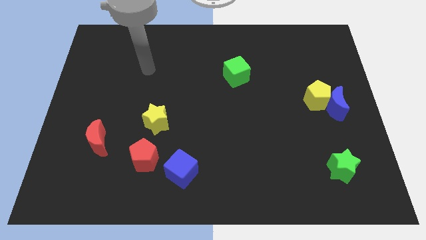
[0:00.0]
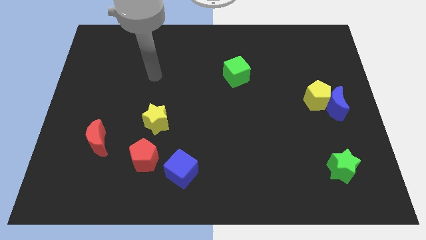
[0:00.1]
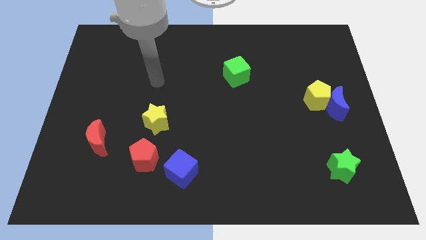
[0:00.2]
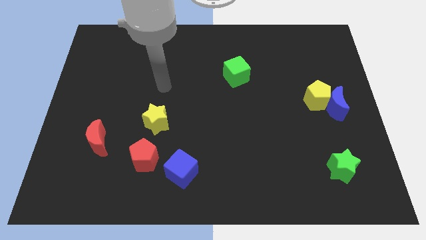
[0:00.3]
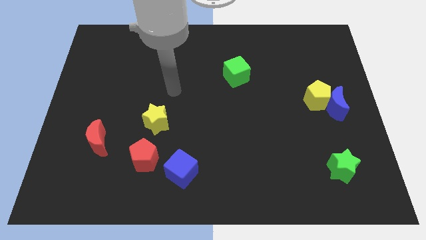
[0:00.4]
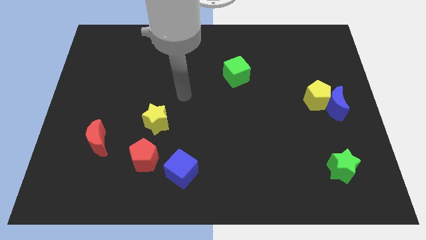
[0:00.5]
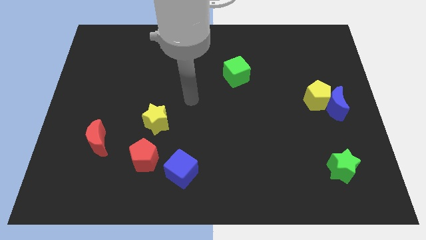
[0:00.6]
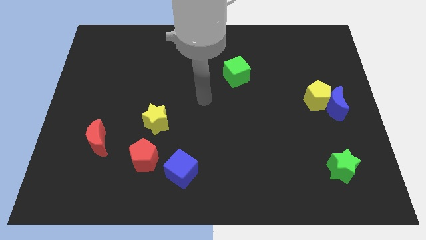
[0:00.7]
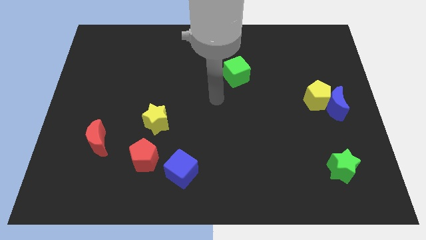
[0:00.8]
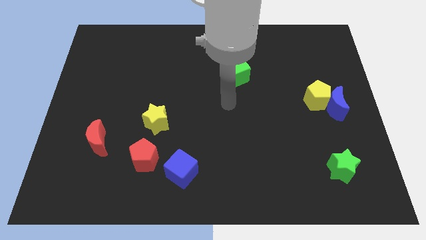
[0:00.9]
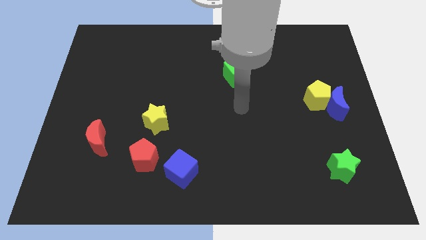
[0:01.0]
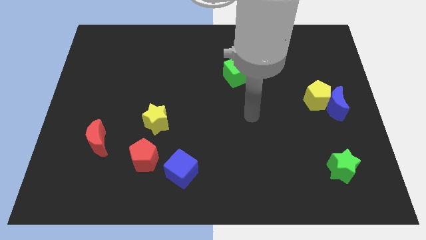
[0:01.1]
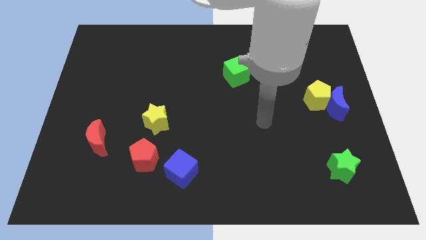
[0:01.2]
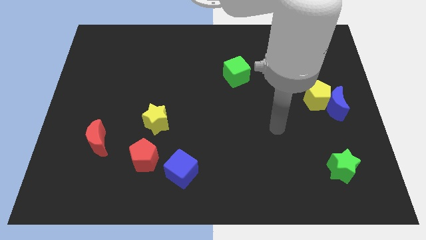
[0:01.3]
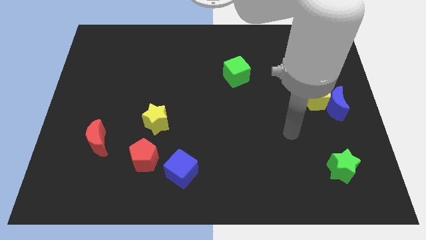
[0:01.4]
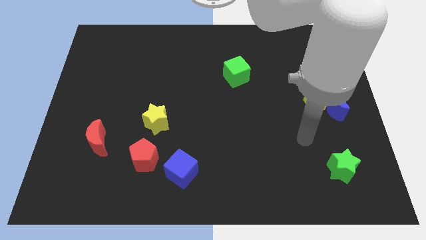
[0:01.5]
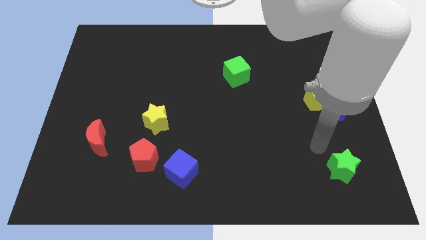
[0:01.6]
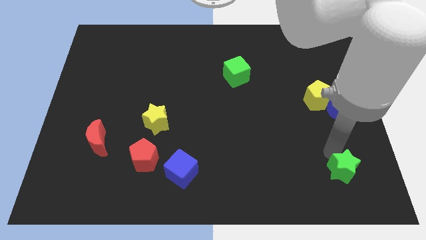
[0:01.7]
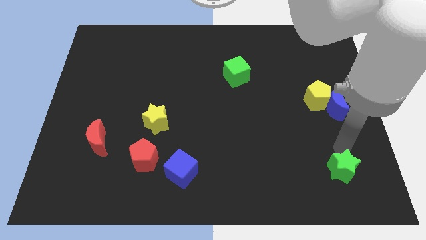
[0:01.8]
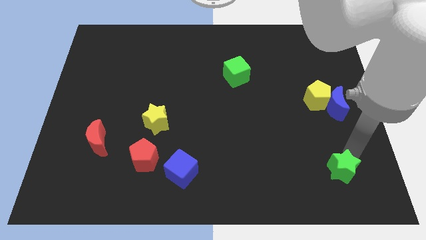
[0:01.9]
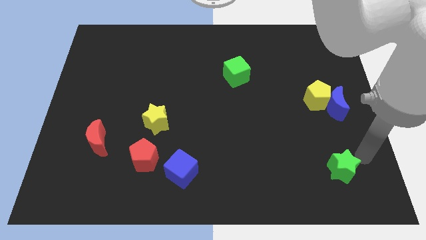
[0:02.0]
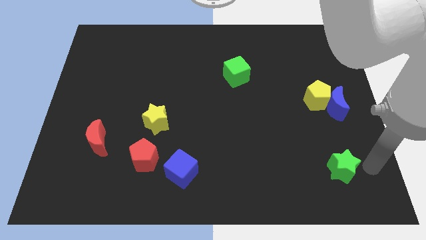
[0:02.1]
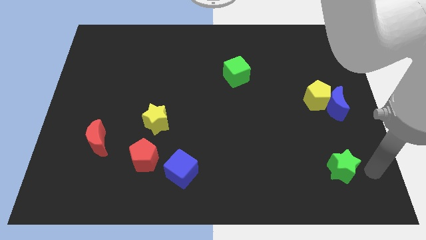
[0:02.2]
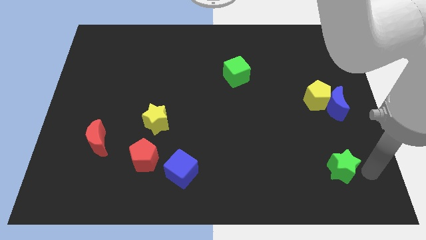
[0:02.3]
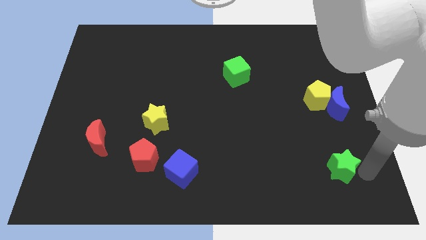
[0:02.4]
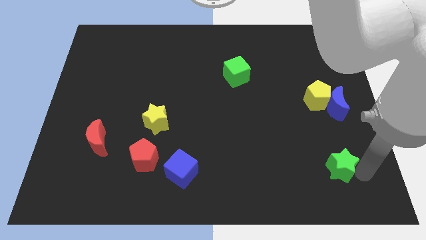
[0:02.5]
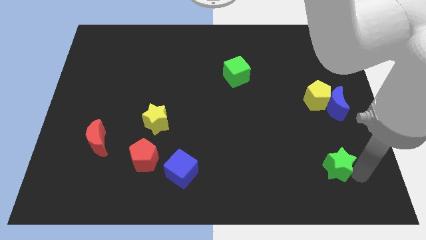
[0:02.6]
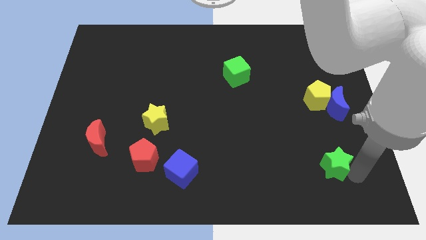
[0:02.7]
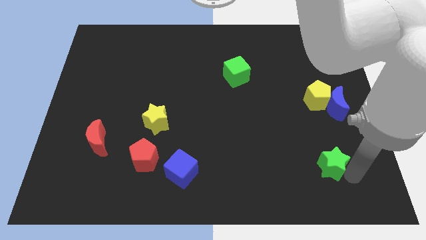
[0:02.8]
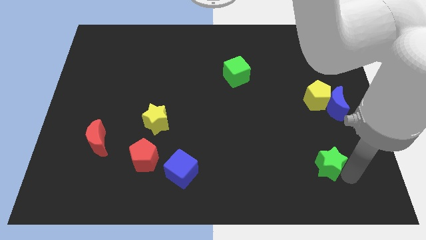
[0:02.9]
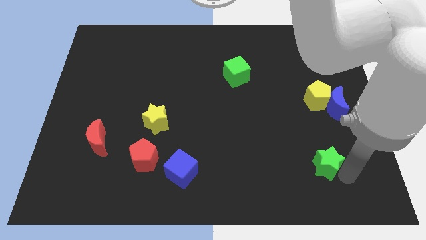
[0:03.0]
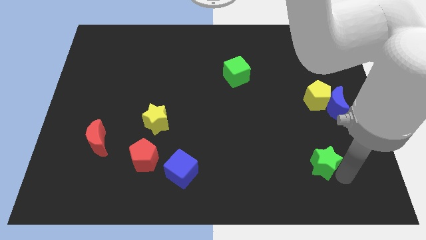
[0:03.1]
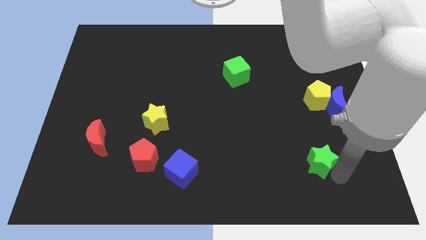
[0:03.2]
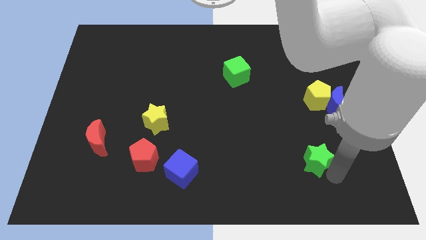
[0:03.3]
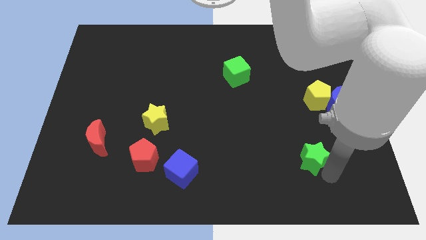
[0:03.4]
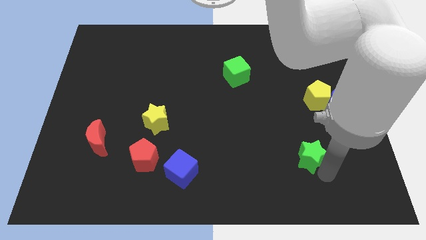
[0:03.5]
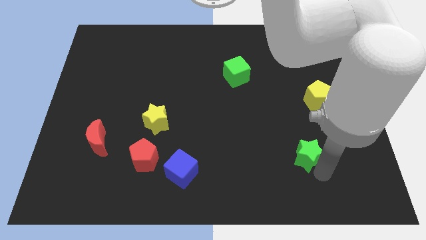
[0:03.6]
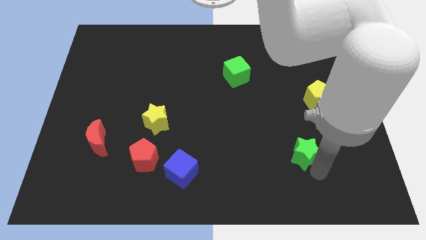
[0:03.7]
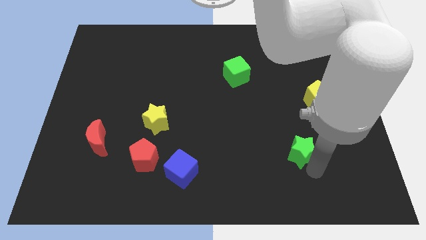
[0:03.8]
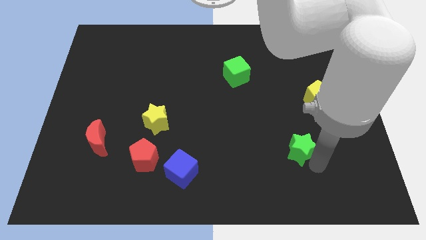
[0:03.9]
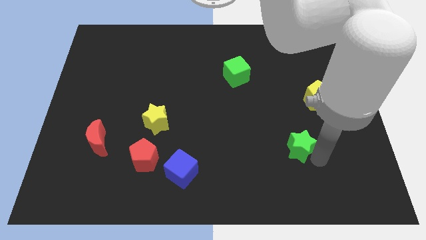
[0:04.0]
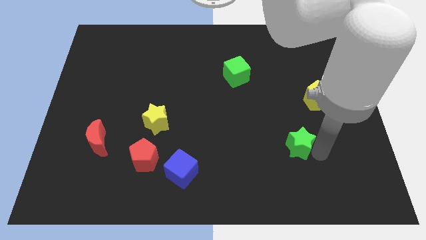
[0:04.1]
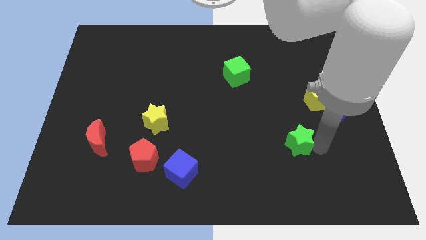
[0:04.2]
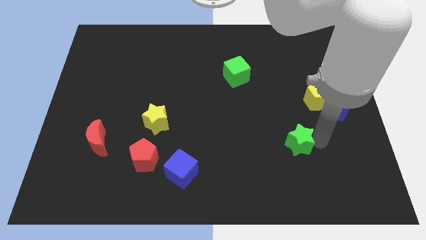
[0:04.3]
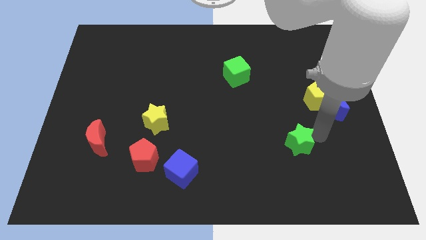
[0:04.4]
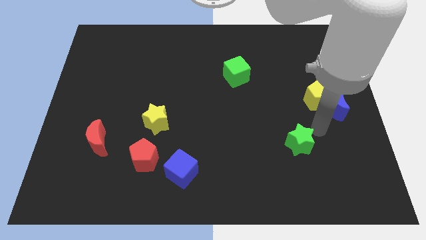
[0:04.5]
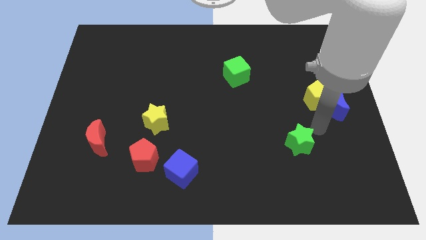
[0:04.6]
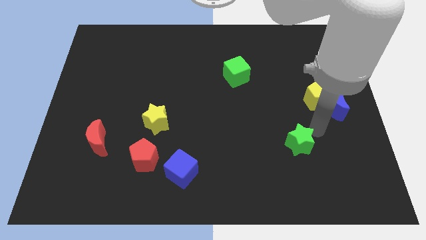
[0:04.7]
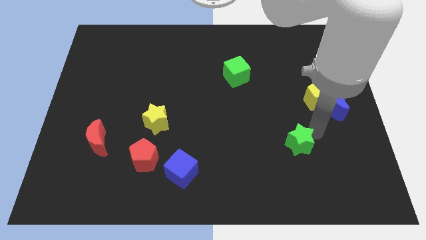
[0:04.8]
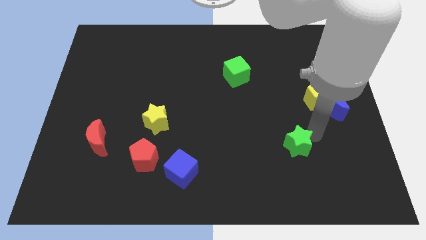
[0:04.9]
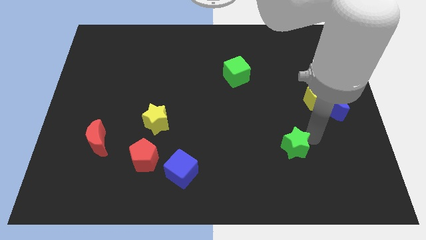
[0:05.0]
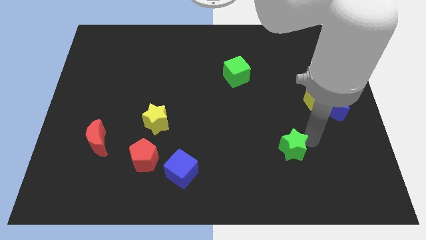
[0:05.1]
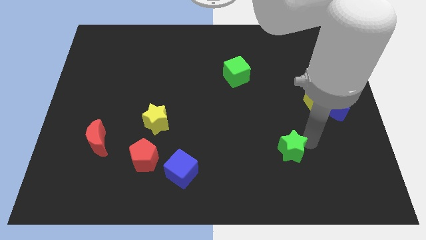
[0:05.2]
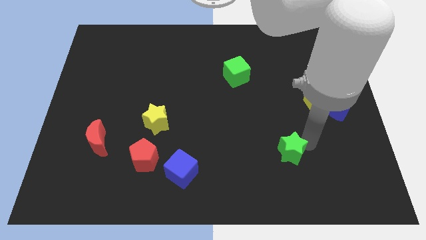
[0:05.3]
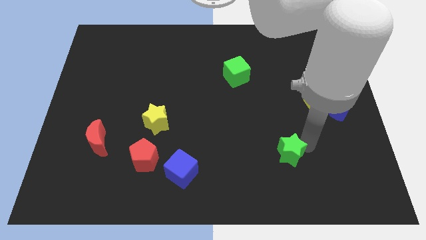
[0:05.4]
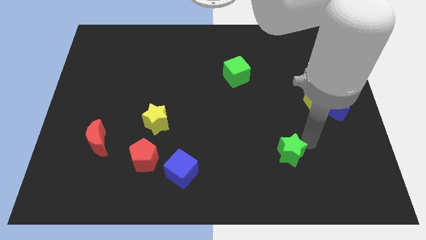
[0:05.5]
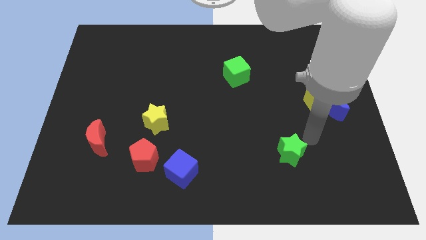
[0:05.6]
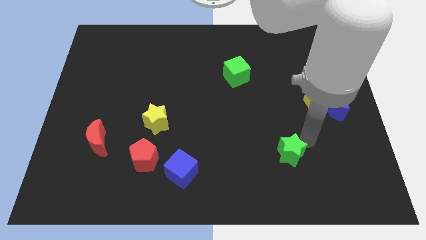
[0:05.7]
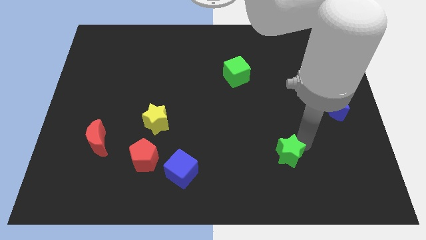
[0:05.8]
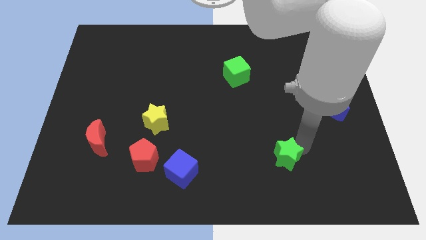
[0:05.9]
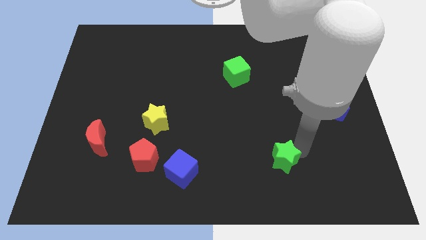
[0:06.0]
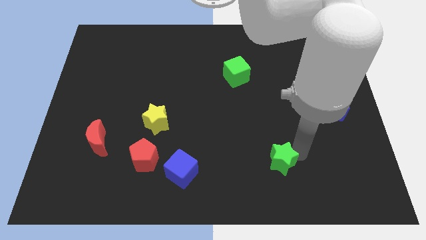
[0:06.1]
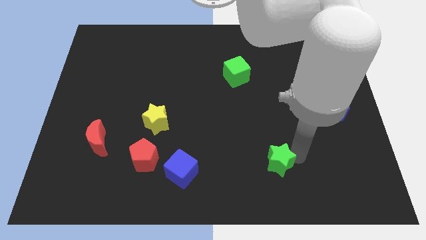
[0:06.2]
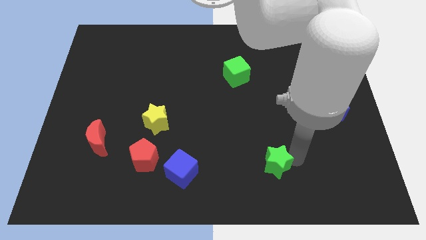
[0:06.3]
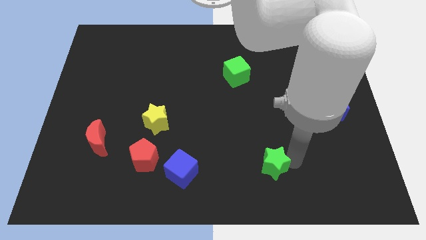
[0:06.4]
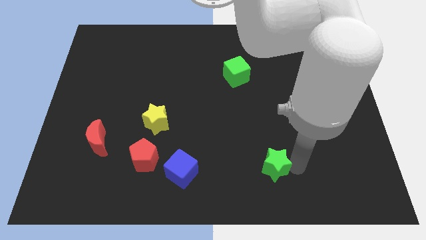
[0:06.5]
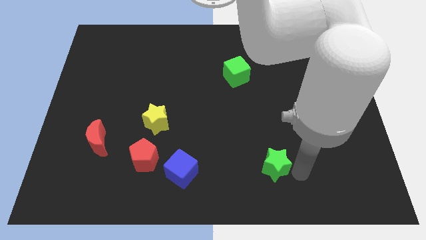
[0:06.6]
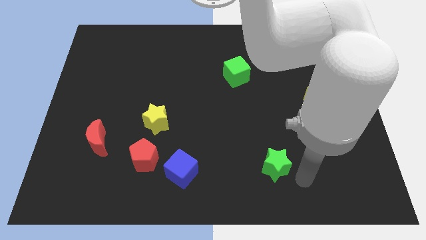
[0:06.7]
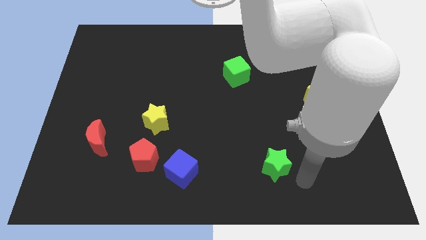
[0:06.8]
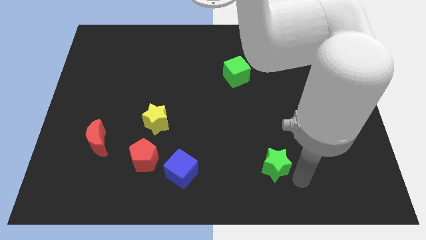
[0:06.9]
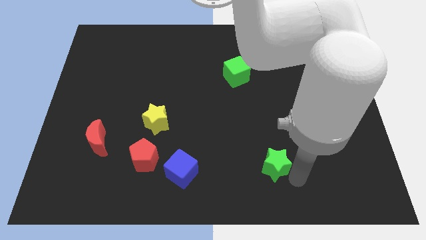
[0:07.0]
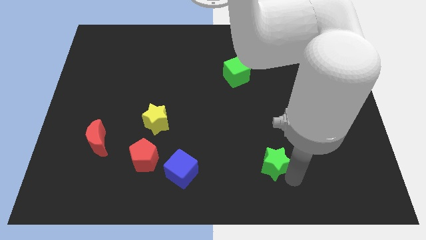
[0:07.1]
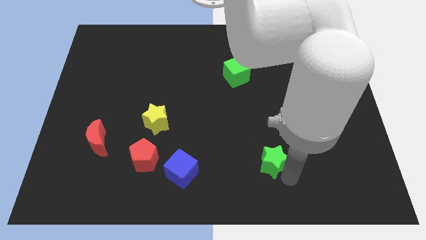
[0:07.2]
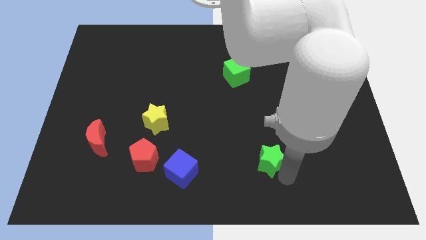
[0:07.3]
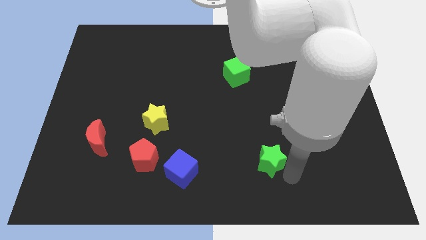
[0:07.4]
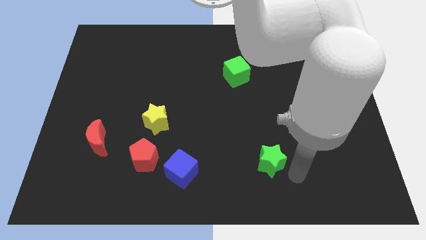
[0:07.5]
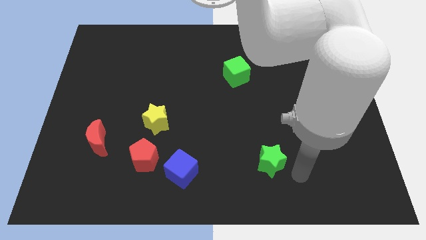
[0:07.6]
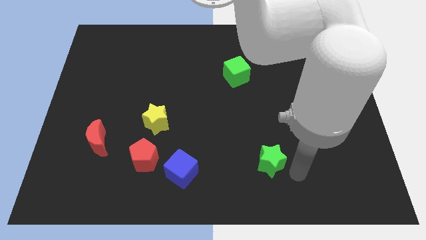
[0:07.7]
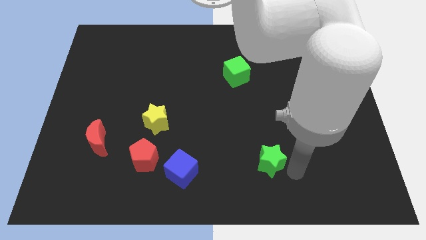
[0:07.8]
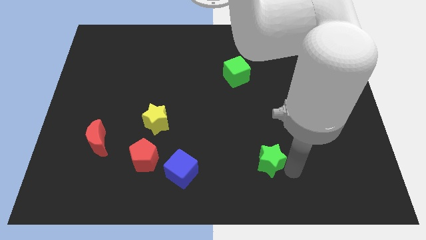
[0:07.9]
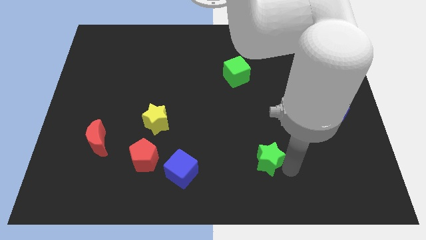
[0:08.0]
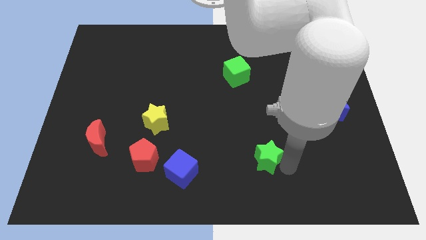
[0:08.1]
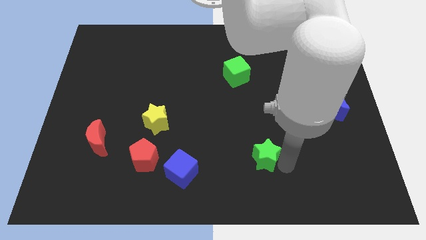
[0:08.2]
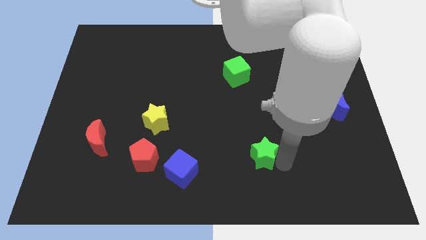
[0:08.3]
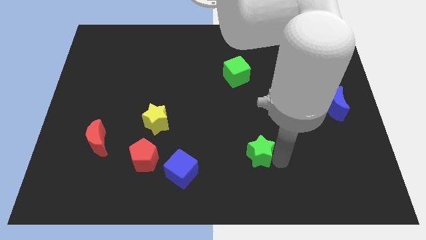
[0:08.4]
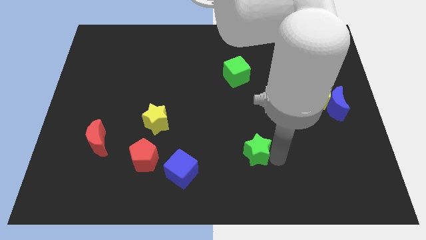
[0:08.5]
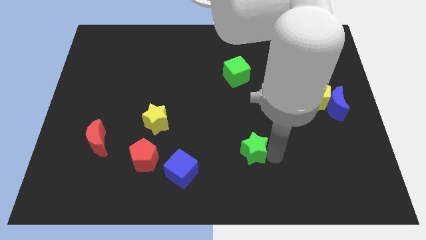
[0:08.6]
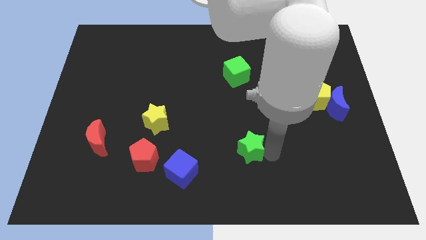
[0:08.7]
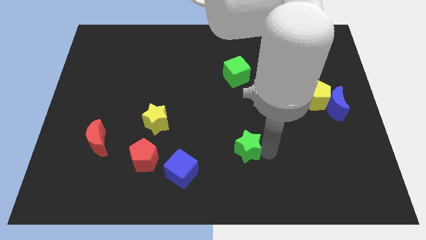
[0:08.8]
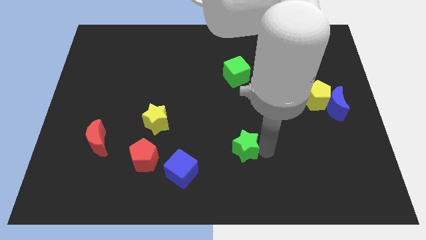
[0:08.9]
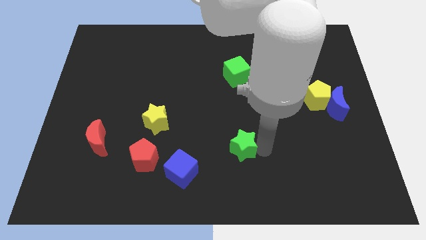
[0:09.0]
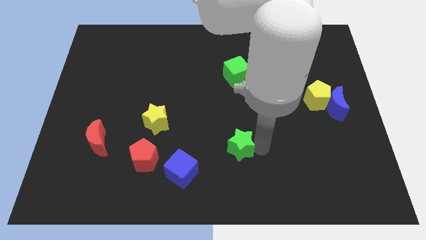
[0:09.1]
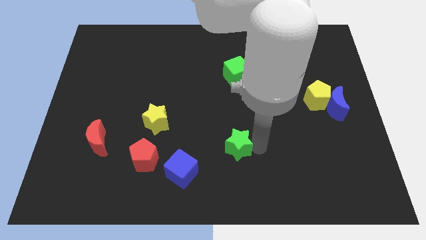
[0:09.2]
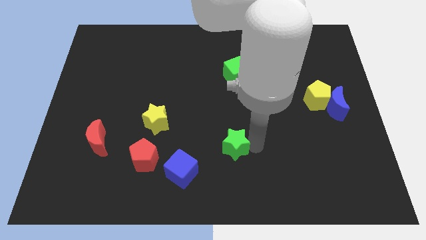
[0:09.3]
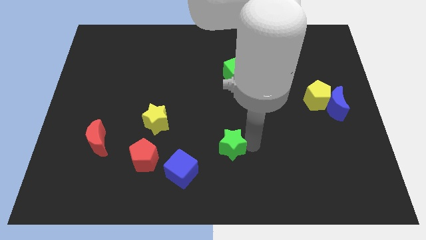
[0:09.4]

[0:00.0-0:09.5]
move the green star to the top right side of the blue cube
